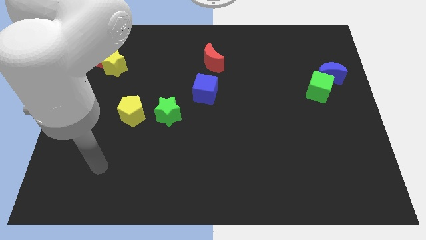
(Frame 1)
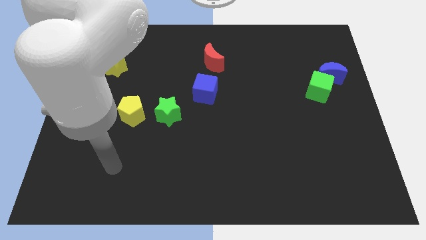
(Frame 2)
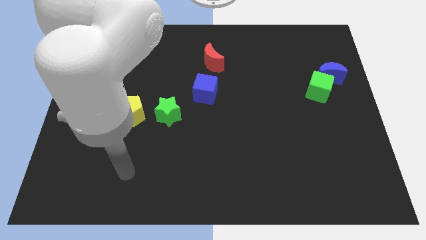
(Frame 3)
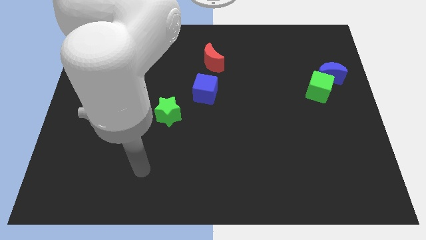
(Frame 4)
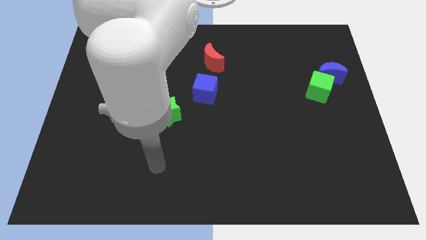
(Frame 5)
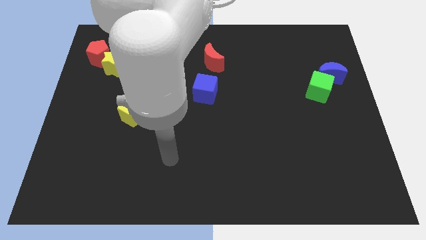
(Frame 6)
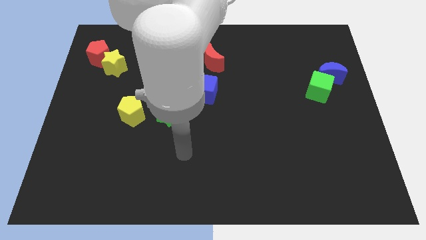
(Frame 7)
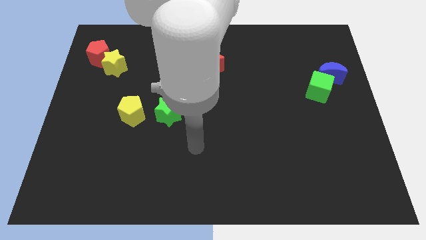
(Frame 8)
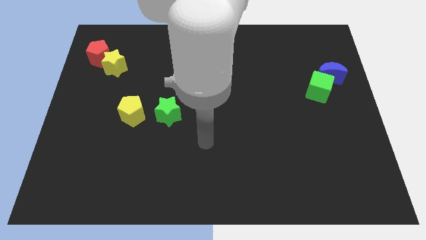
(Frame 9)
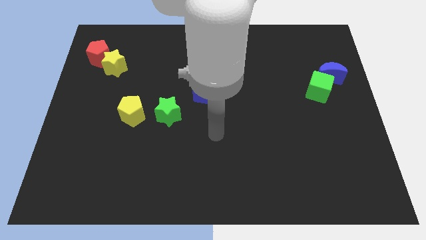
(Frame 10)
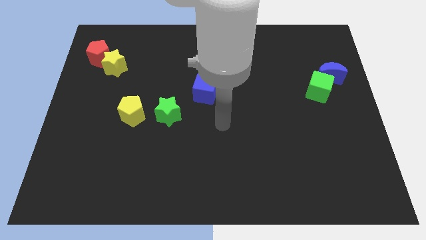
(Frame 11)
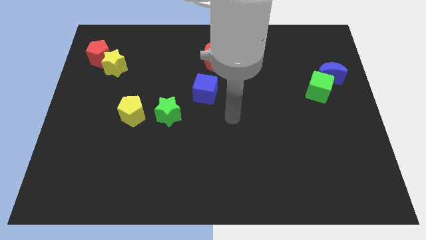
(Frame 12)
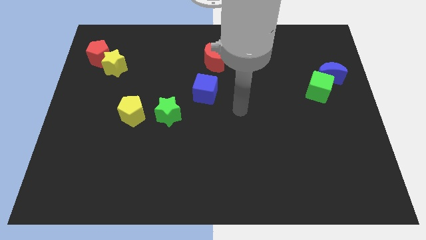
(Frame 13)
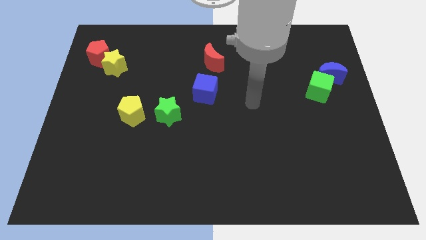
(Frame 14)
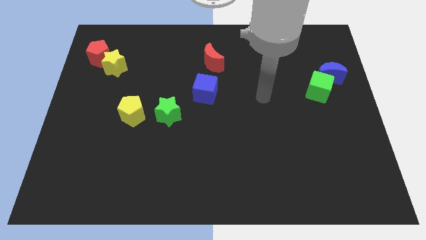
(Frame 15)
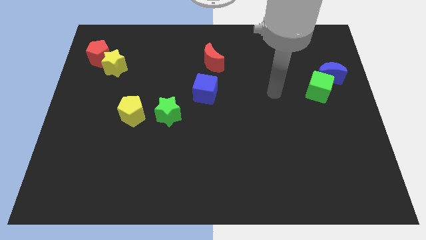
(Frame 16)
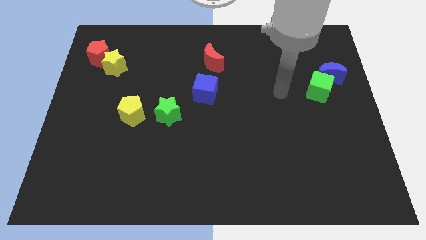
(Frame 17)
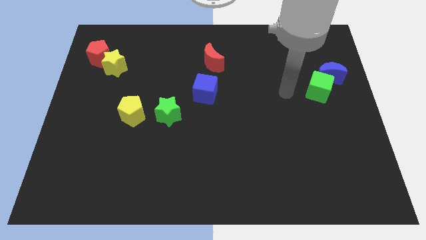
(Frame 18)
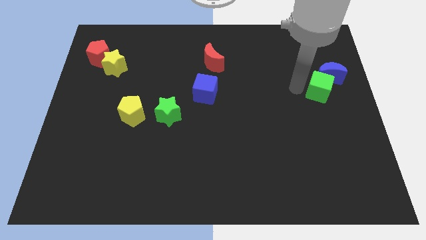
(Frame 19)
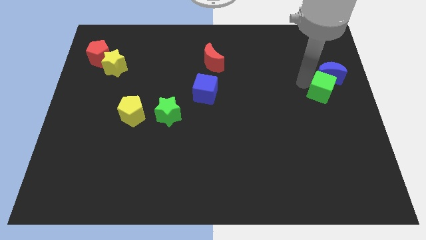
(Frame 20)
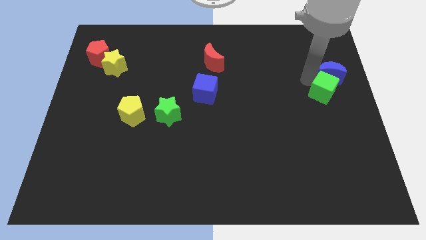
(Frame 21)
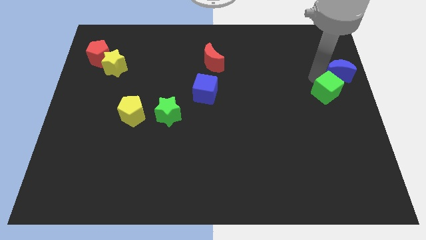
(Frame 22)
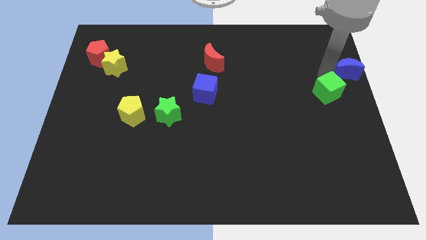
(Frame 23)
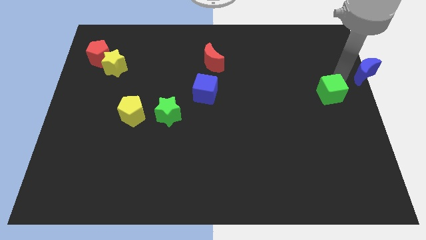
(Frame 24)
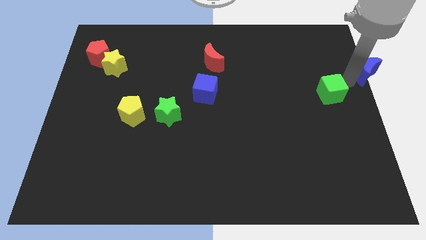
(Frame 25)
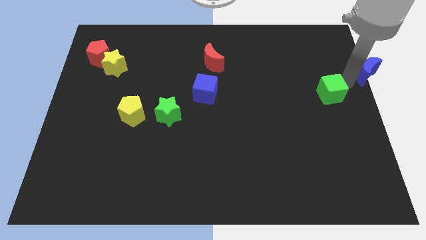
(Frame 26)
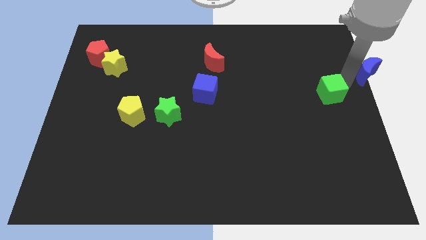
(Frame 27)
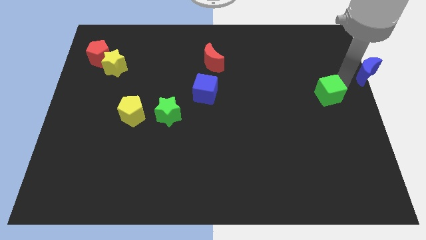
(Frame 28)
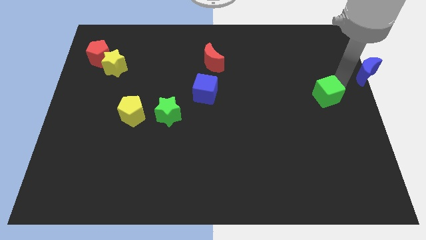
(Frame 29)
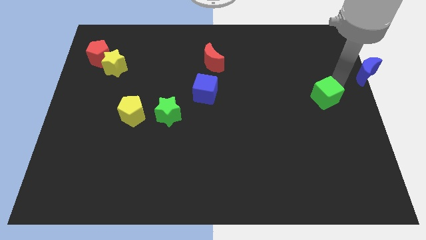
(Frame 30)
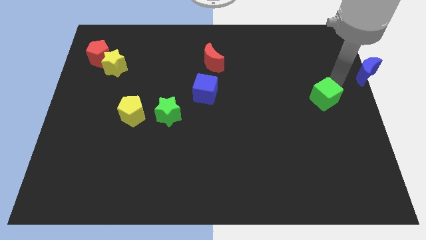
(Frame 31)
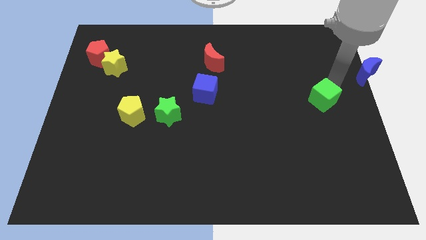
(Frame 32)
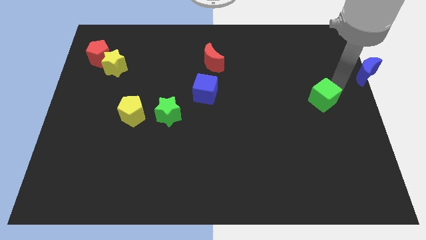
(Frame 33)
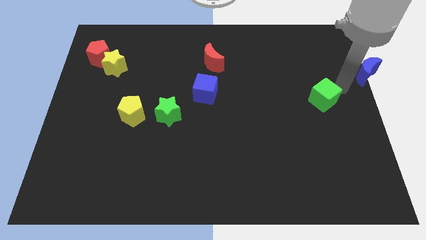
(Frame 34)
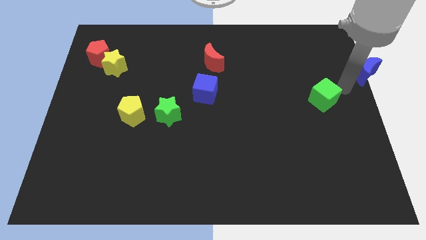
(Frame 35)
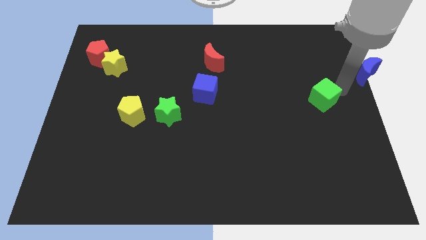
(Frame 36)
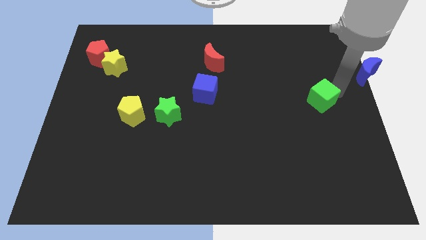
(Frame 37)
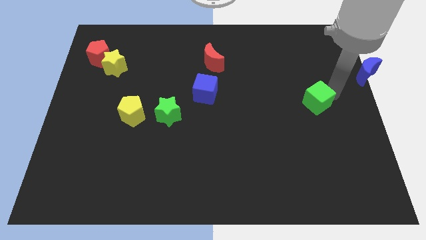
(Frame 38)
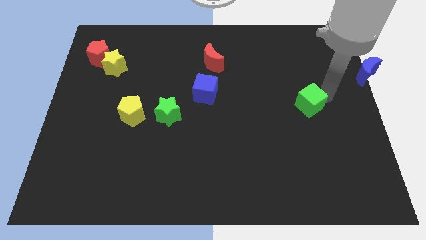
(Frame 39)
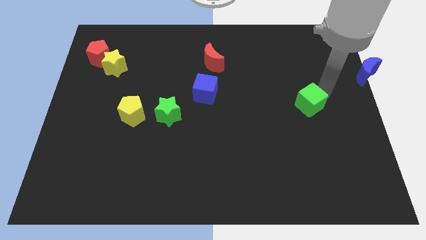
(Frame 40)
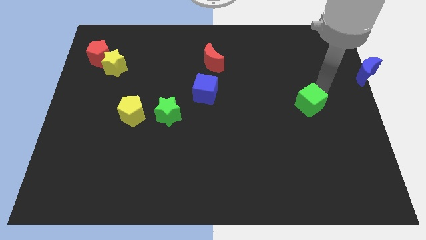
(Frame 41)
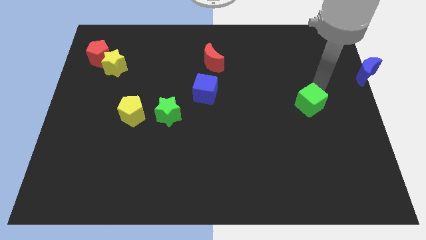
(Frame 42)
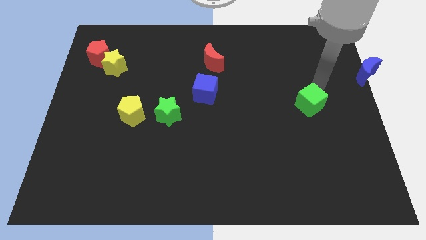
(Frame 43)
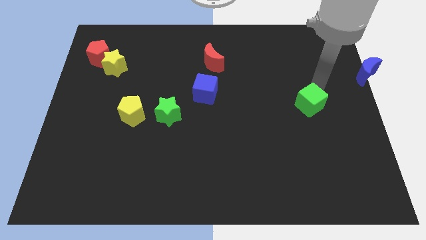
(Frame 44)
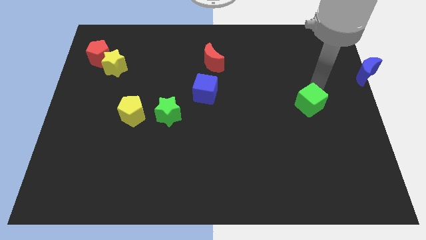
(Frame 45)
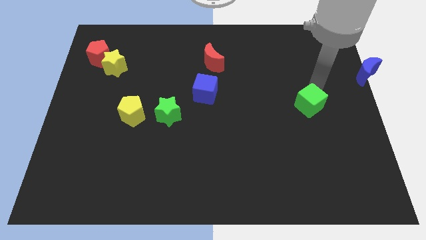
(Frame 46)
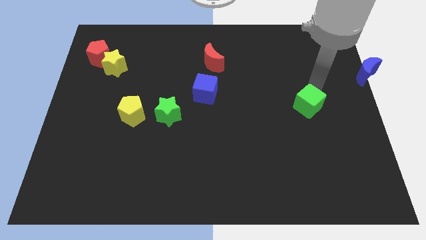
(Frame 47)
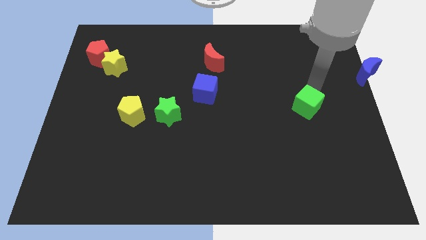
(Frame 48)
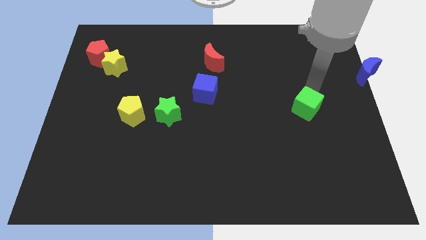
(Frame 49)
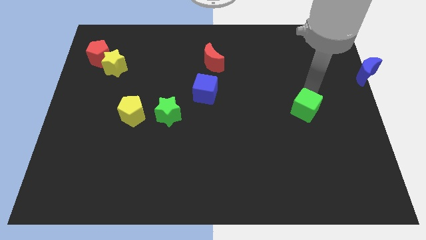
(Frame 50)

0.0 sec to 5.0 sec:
push the green cube downwards and to the left a little

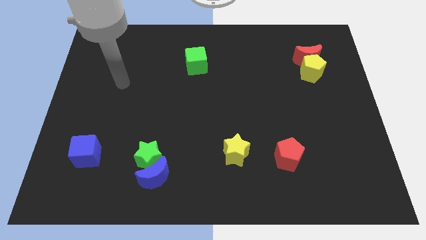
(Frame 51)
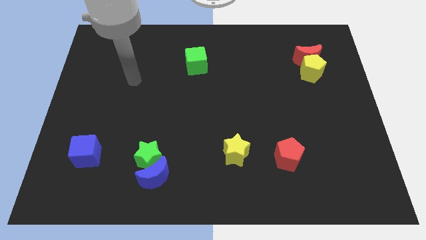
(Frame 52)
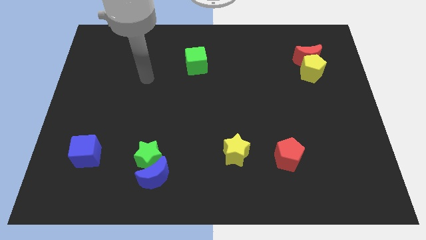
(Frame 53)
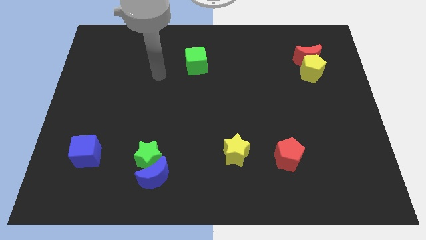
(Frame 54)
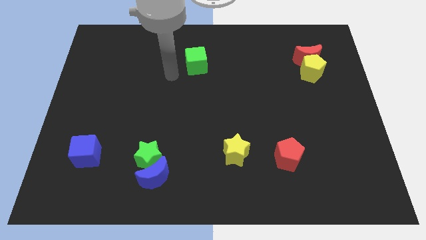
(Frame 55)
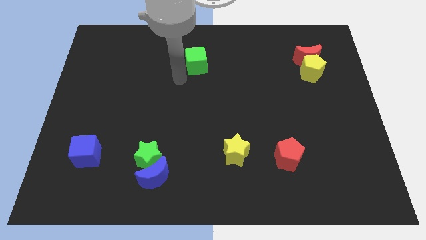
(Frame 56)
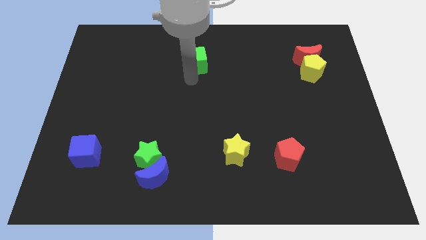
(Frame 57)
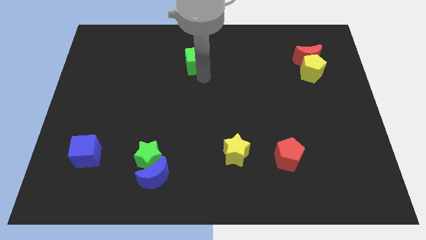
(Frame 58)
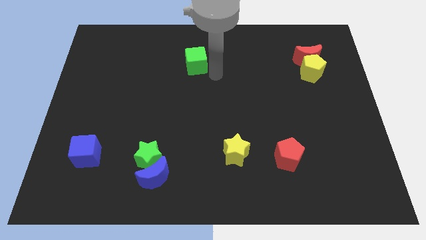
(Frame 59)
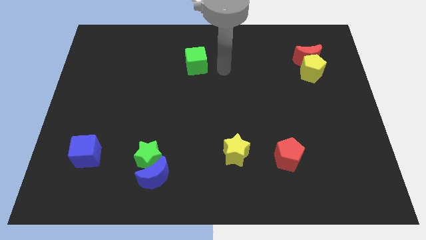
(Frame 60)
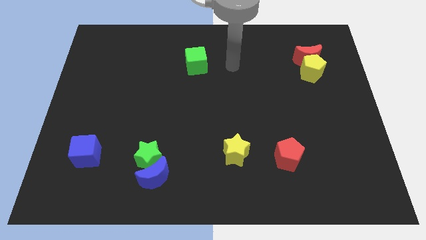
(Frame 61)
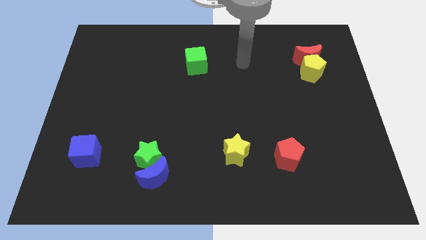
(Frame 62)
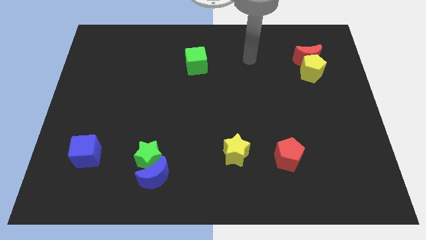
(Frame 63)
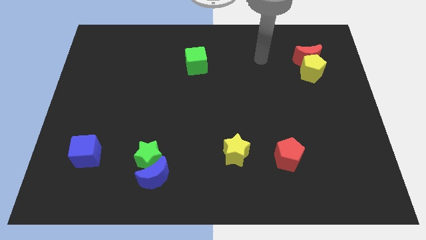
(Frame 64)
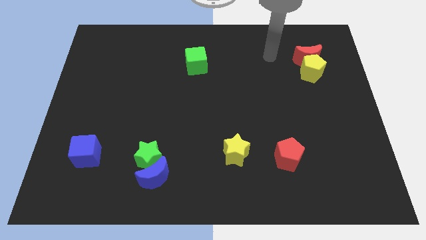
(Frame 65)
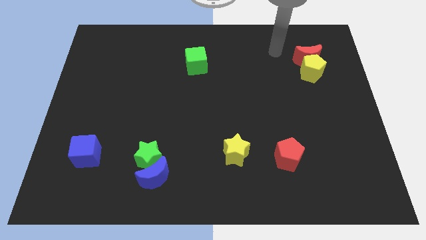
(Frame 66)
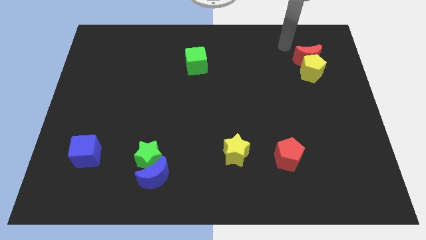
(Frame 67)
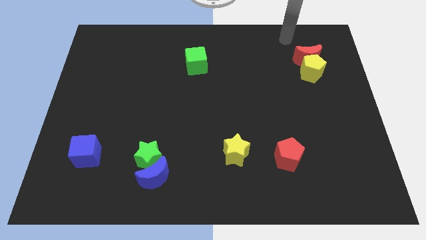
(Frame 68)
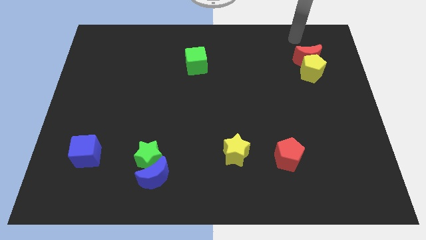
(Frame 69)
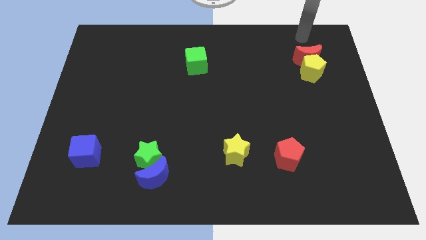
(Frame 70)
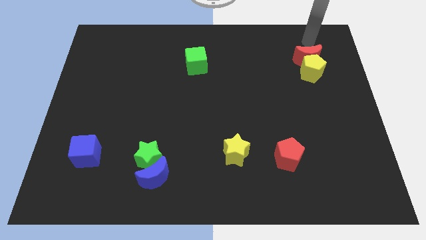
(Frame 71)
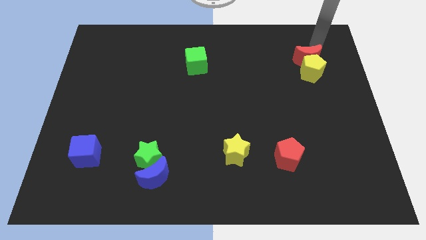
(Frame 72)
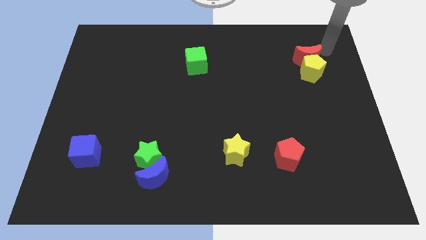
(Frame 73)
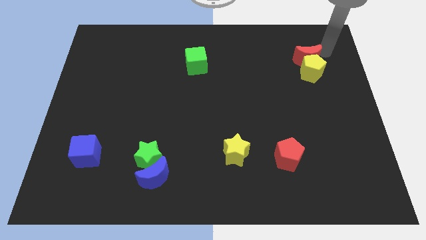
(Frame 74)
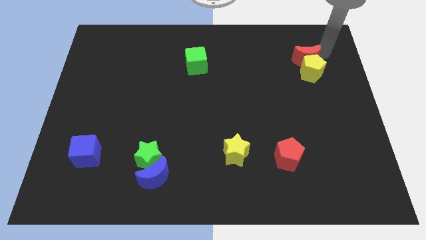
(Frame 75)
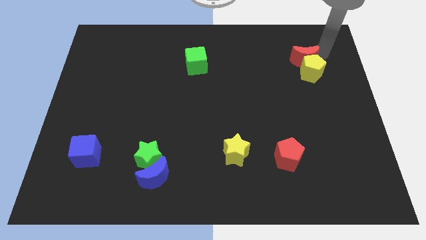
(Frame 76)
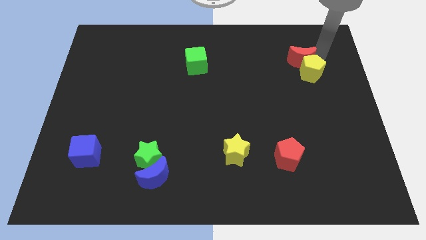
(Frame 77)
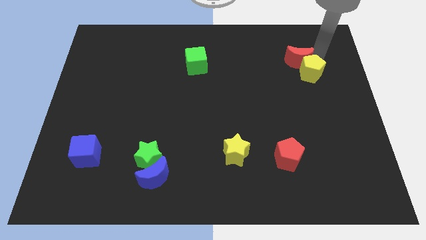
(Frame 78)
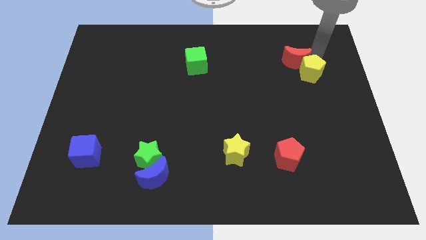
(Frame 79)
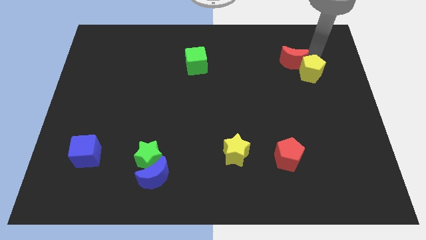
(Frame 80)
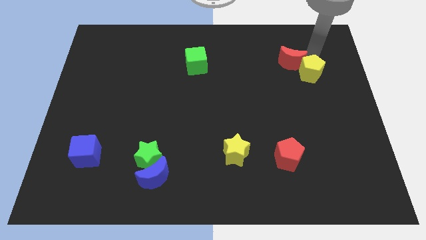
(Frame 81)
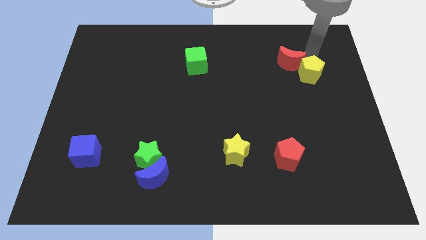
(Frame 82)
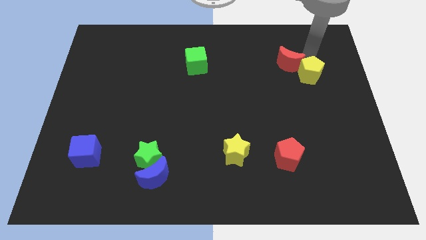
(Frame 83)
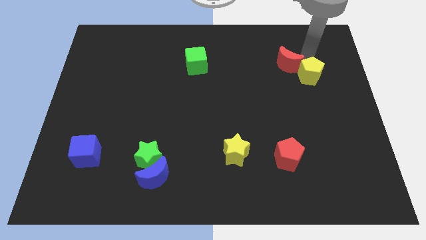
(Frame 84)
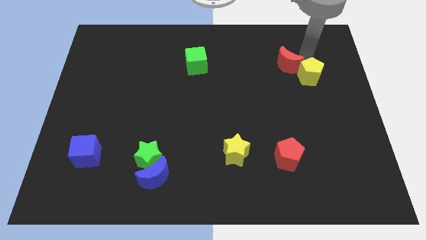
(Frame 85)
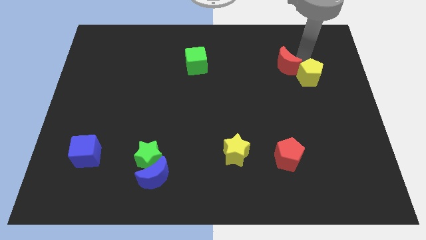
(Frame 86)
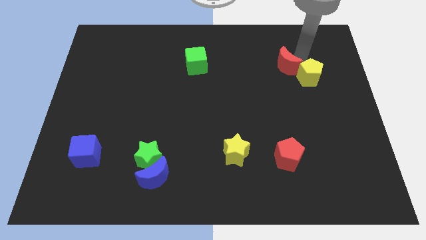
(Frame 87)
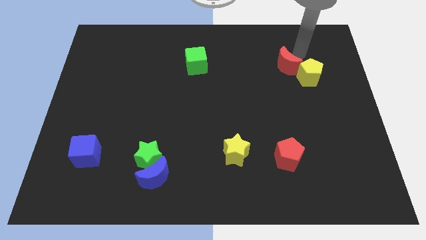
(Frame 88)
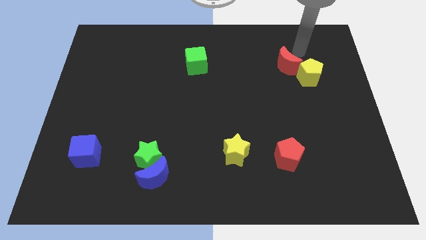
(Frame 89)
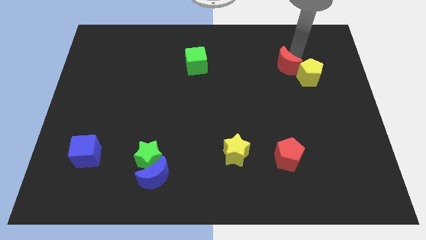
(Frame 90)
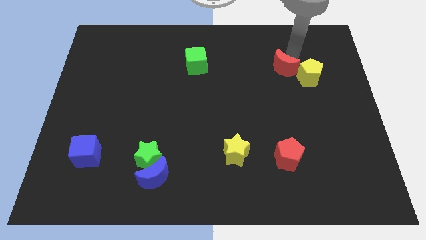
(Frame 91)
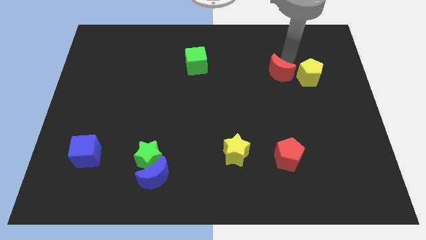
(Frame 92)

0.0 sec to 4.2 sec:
push the red moon a little bit diagonally down and to the left
